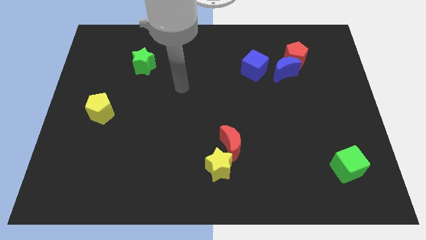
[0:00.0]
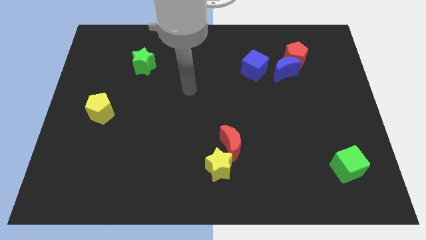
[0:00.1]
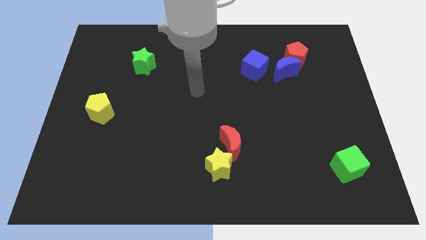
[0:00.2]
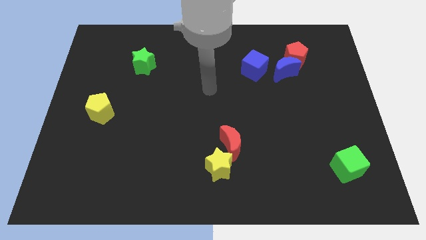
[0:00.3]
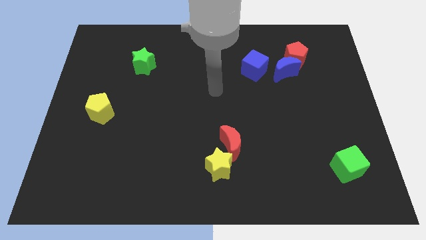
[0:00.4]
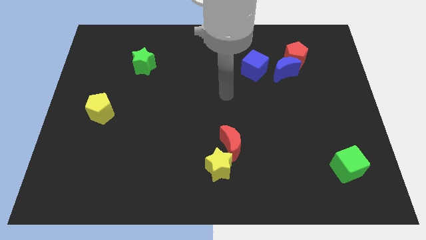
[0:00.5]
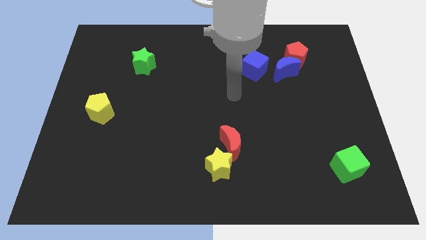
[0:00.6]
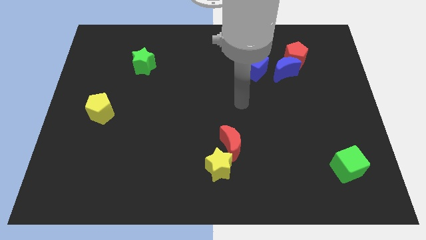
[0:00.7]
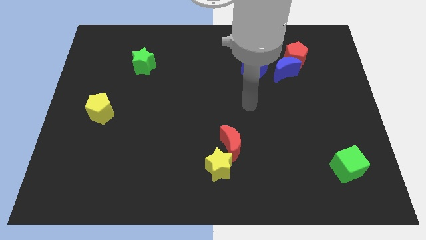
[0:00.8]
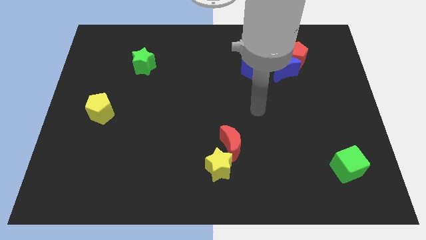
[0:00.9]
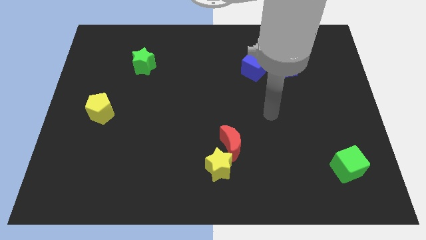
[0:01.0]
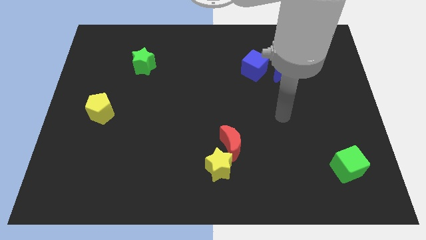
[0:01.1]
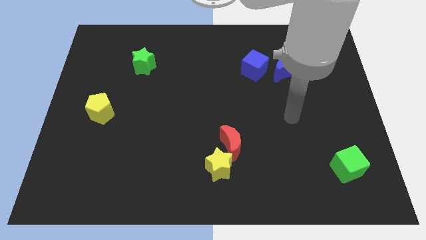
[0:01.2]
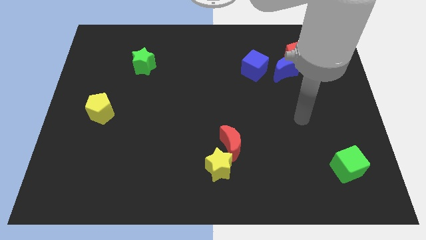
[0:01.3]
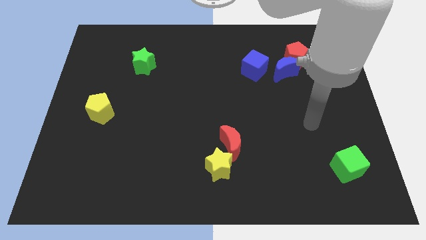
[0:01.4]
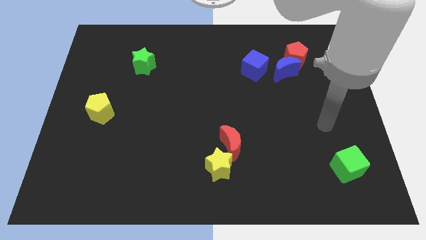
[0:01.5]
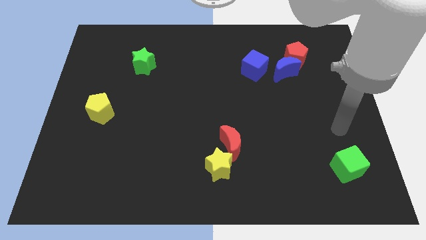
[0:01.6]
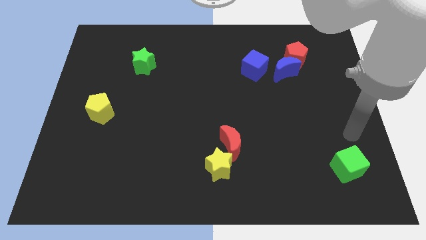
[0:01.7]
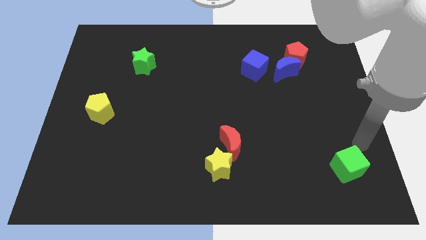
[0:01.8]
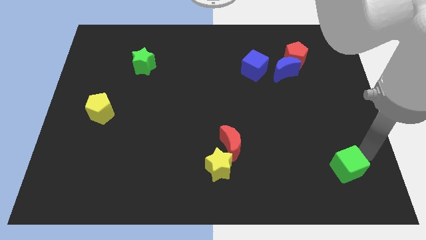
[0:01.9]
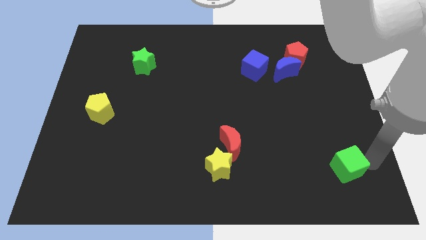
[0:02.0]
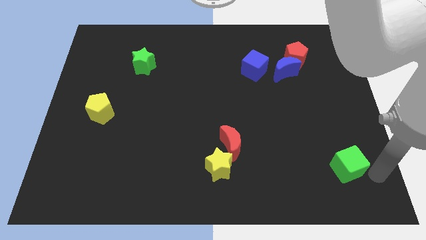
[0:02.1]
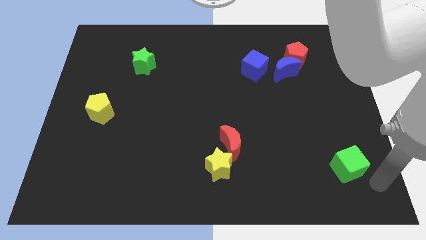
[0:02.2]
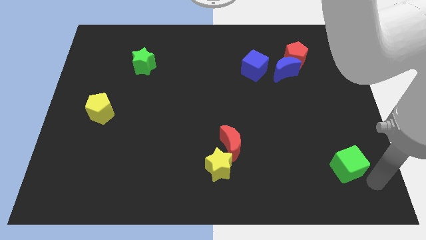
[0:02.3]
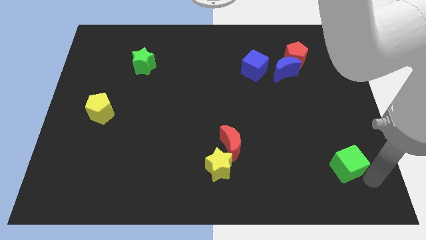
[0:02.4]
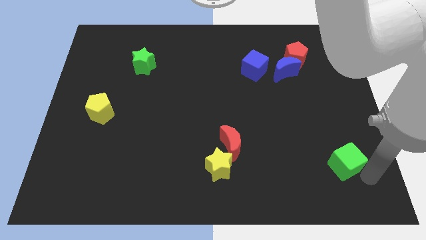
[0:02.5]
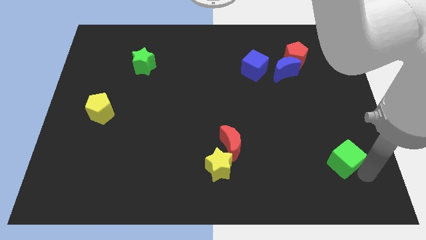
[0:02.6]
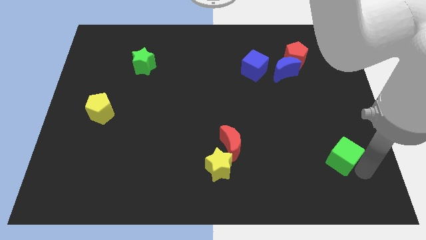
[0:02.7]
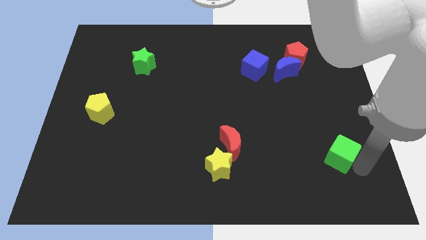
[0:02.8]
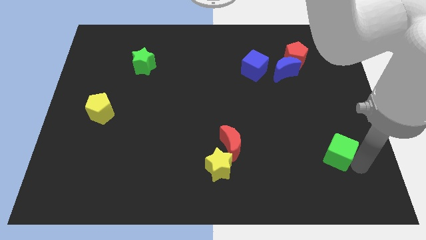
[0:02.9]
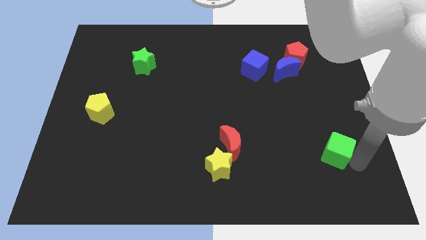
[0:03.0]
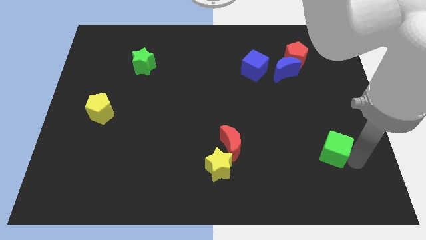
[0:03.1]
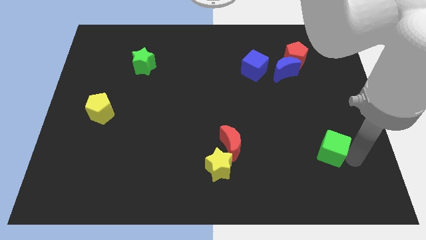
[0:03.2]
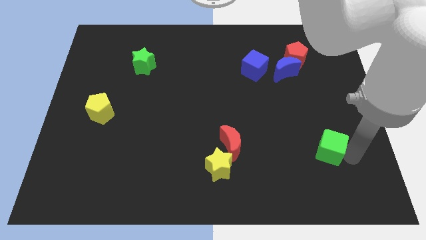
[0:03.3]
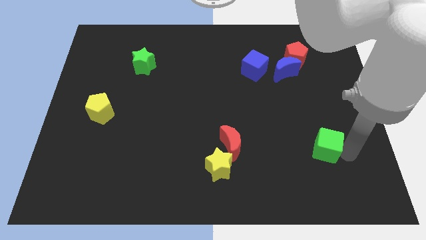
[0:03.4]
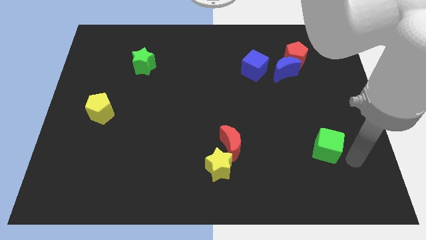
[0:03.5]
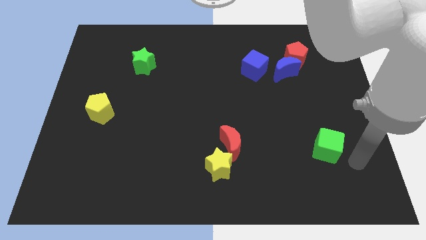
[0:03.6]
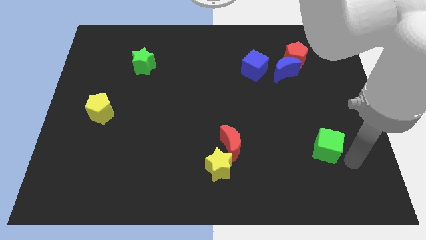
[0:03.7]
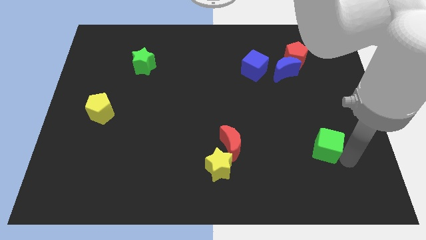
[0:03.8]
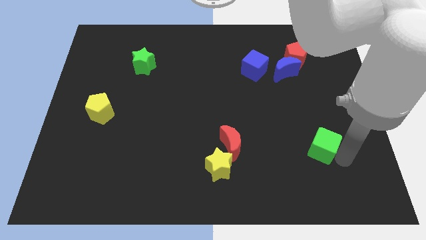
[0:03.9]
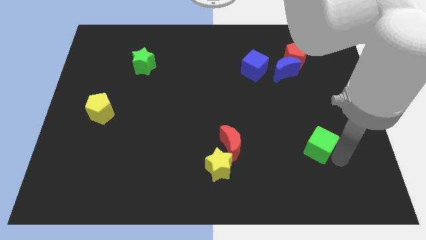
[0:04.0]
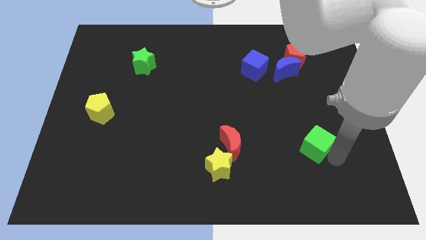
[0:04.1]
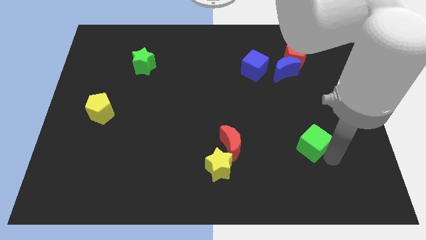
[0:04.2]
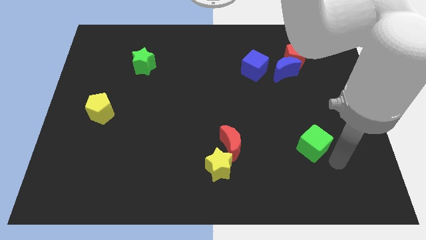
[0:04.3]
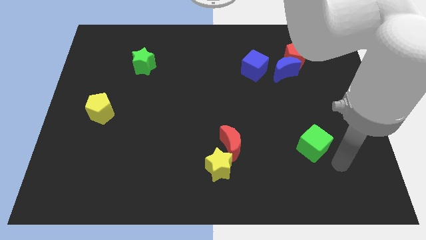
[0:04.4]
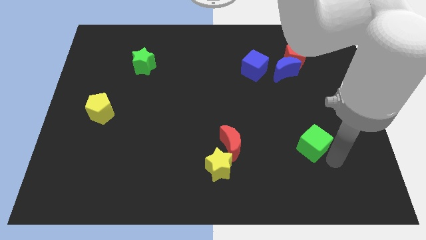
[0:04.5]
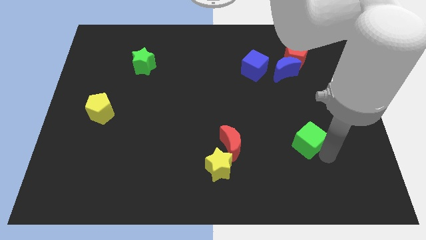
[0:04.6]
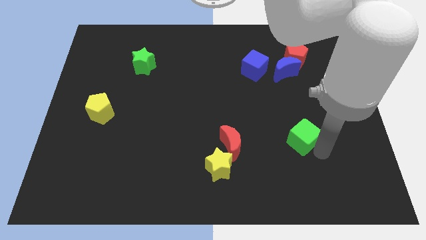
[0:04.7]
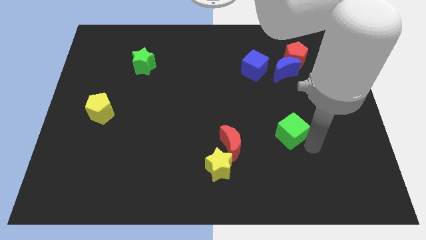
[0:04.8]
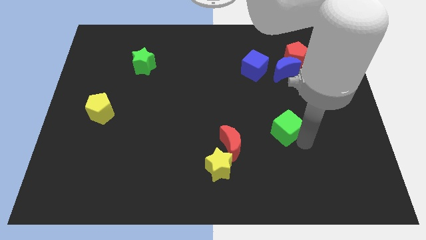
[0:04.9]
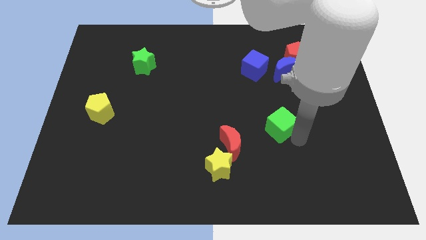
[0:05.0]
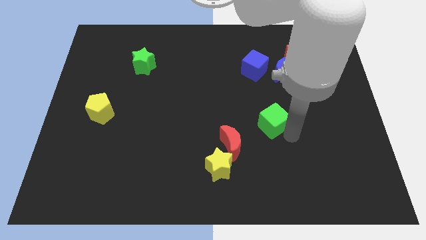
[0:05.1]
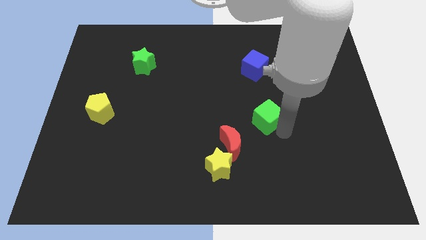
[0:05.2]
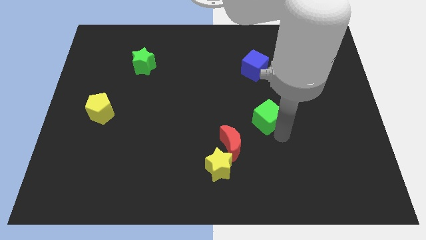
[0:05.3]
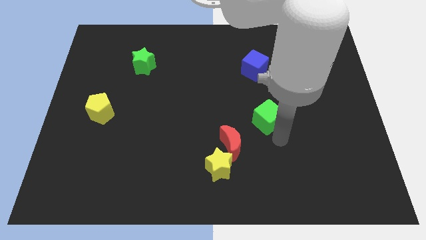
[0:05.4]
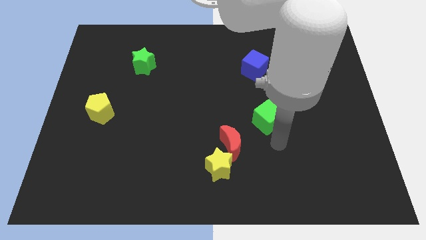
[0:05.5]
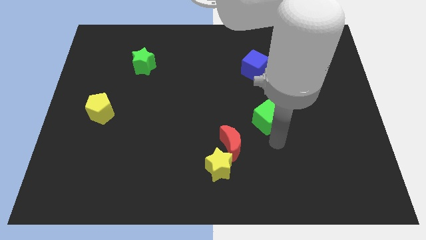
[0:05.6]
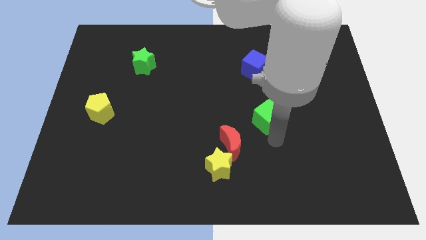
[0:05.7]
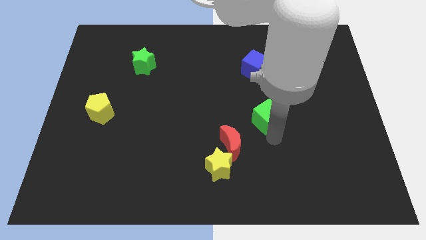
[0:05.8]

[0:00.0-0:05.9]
push the green cube upwards and left

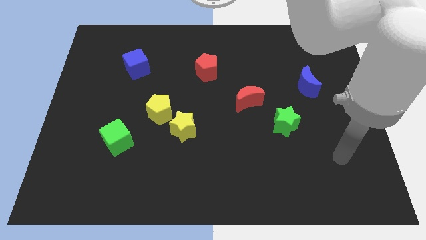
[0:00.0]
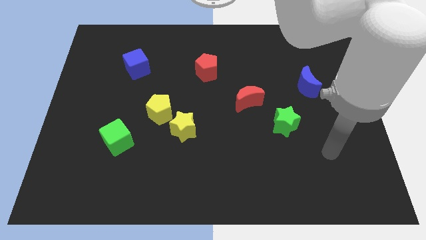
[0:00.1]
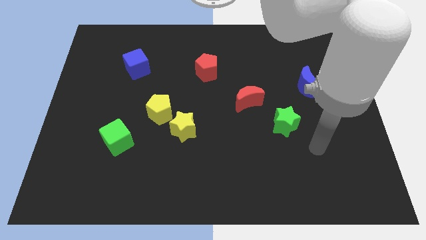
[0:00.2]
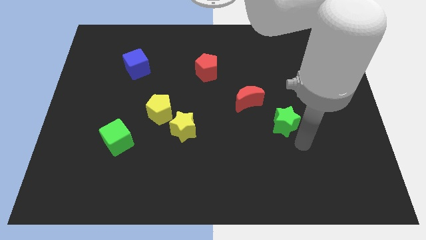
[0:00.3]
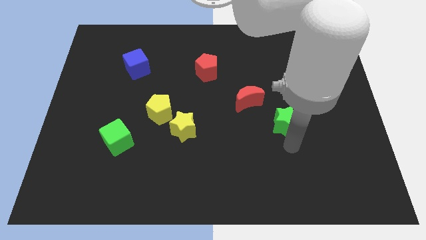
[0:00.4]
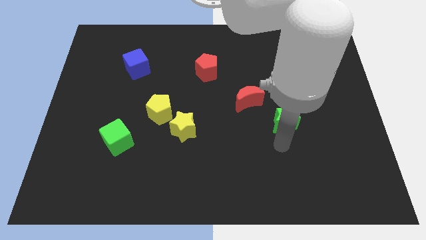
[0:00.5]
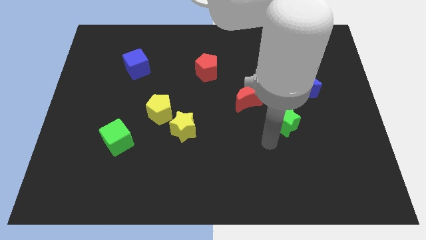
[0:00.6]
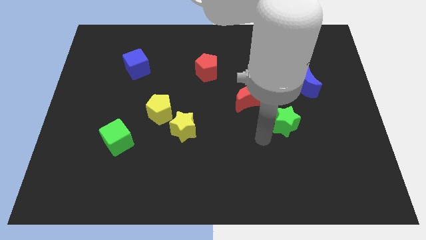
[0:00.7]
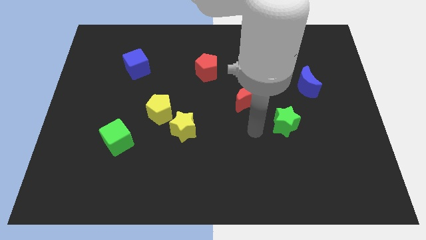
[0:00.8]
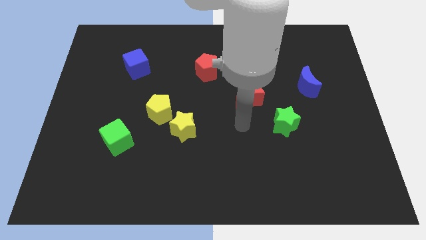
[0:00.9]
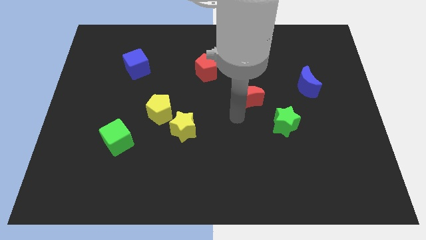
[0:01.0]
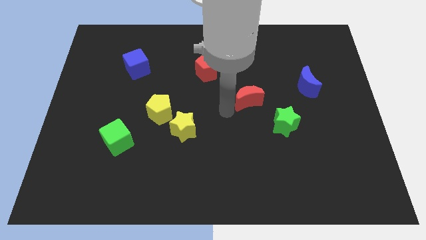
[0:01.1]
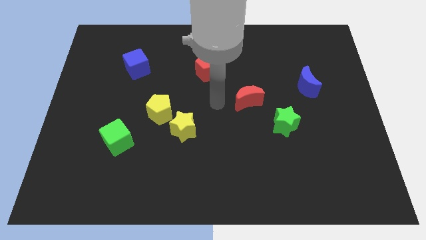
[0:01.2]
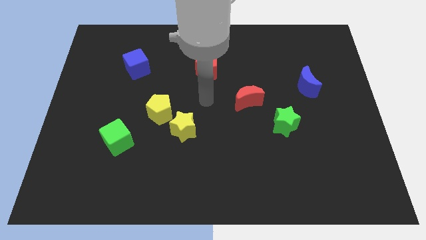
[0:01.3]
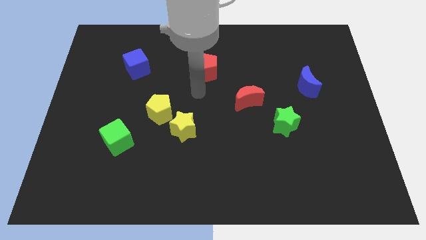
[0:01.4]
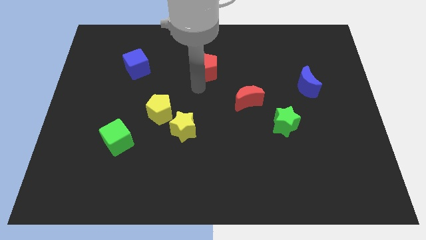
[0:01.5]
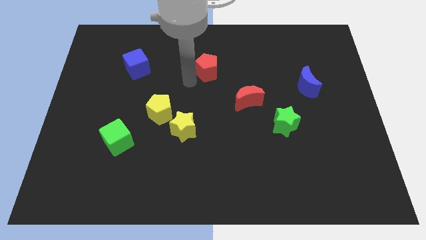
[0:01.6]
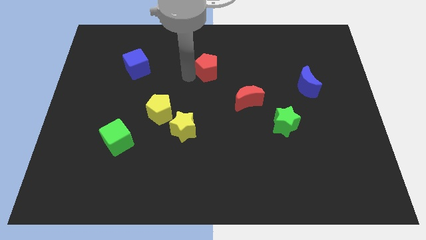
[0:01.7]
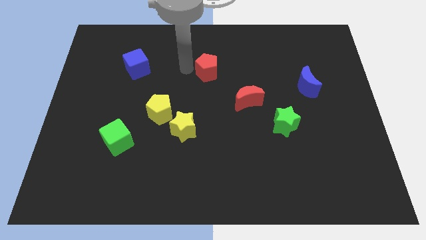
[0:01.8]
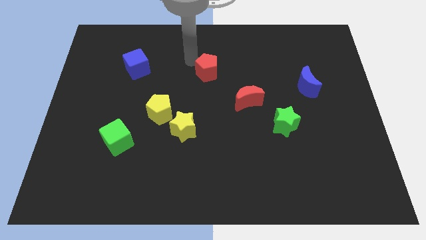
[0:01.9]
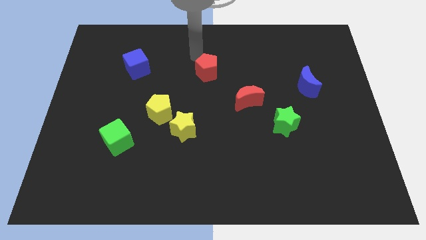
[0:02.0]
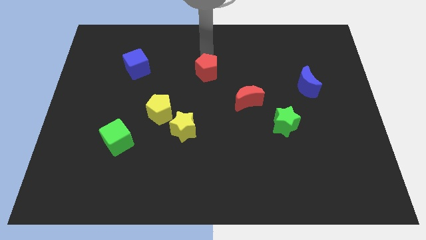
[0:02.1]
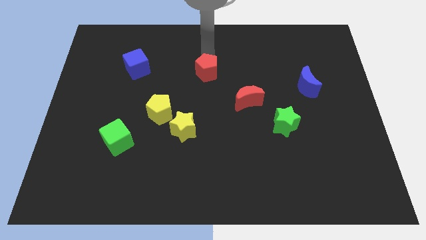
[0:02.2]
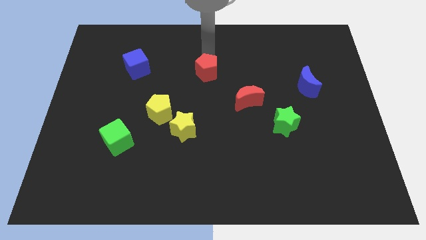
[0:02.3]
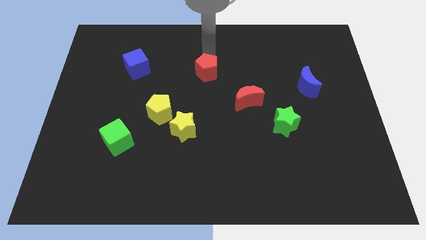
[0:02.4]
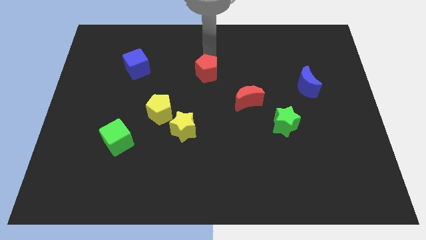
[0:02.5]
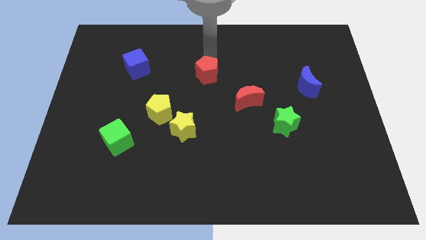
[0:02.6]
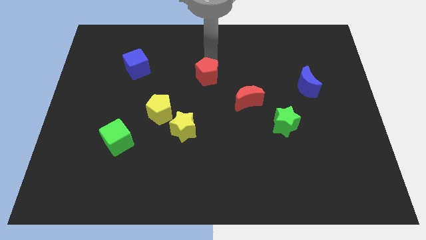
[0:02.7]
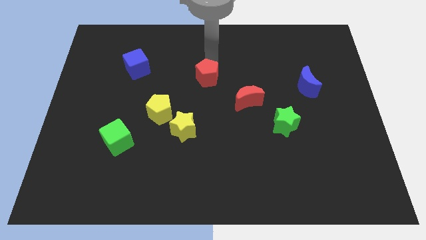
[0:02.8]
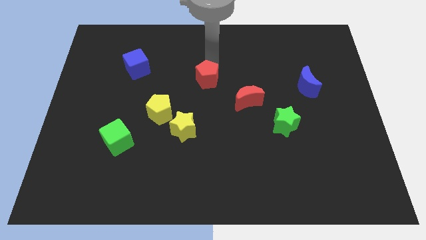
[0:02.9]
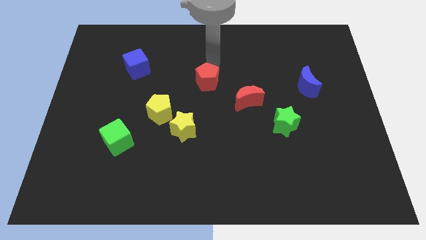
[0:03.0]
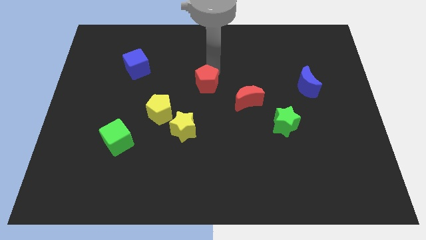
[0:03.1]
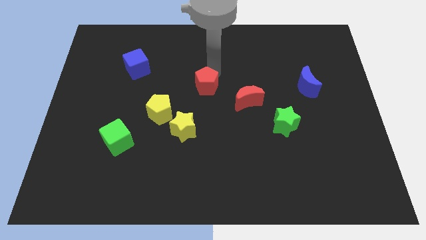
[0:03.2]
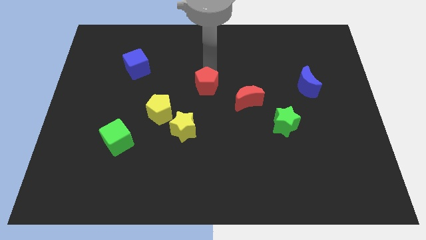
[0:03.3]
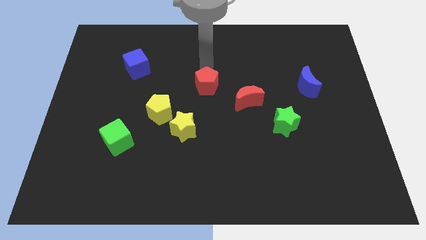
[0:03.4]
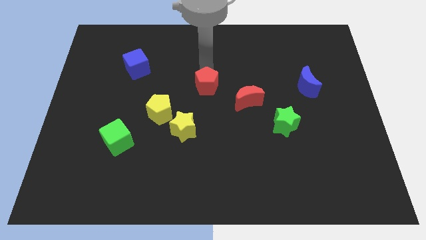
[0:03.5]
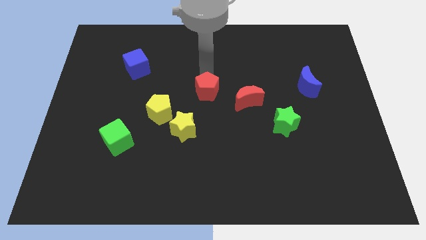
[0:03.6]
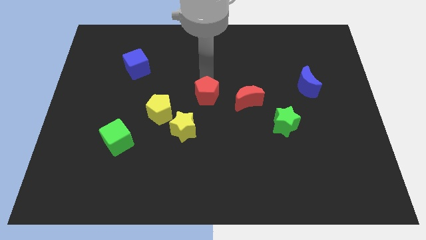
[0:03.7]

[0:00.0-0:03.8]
slightly slide the red pentagon down
